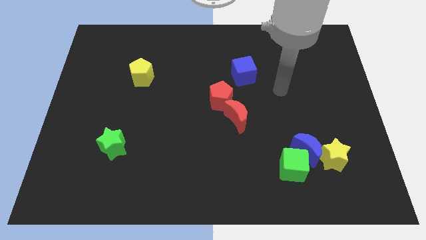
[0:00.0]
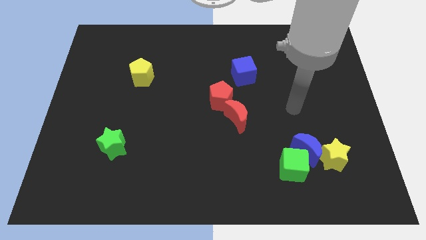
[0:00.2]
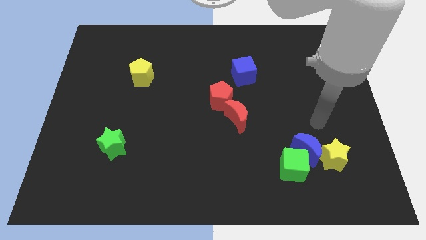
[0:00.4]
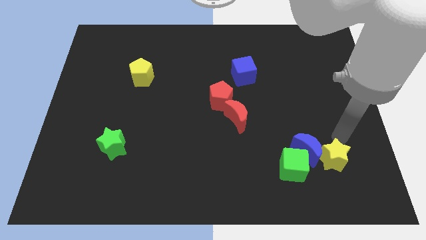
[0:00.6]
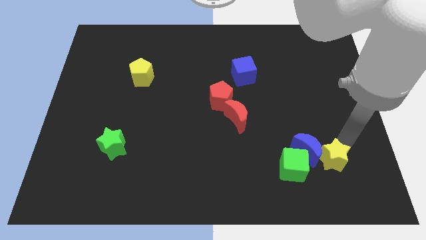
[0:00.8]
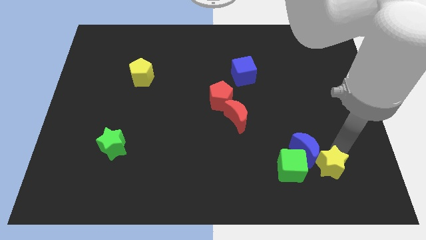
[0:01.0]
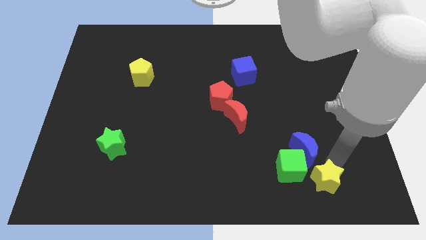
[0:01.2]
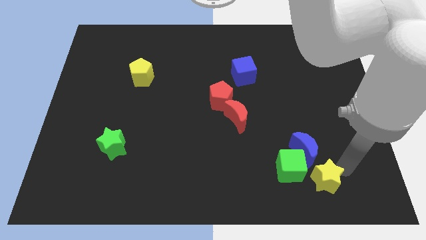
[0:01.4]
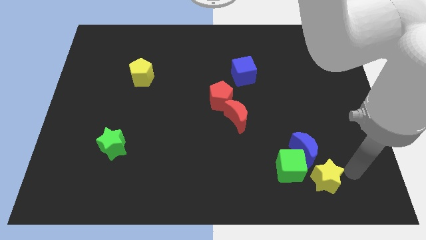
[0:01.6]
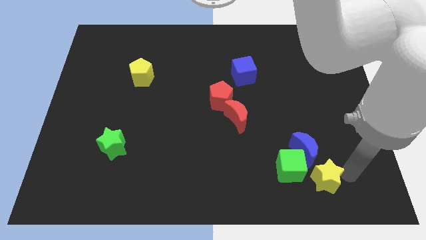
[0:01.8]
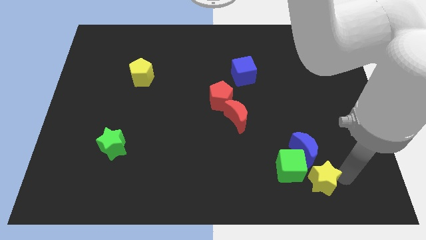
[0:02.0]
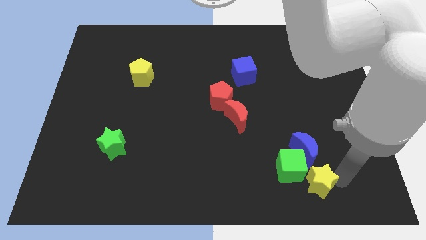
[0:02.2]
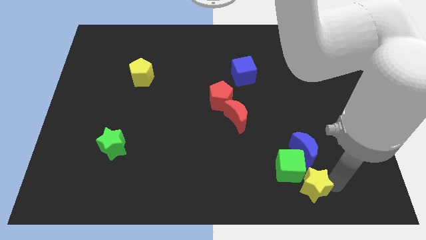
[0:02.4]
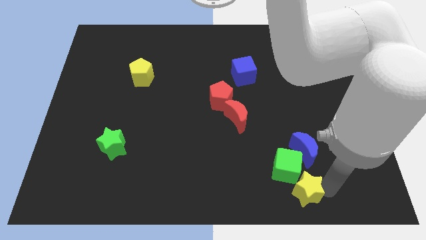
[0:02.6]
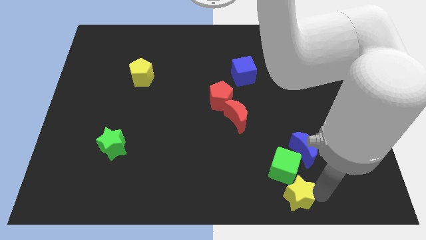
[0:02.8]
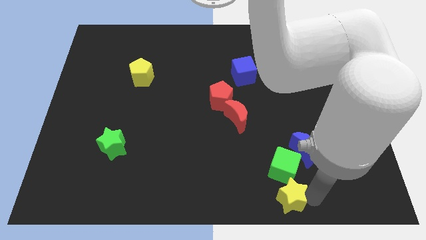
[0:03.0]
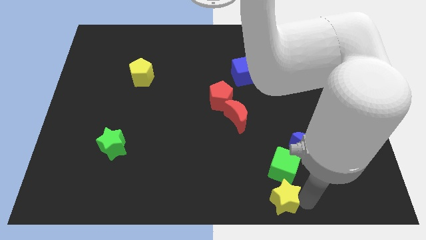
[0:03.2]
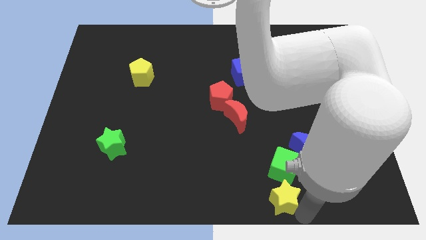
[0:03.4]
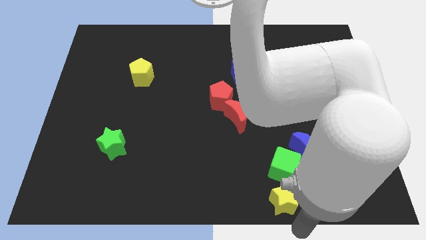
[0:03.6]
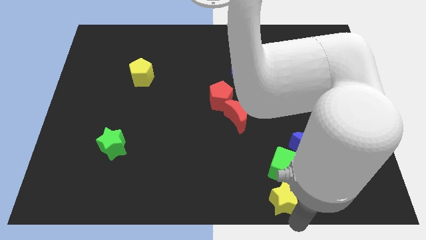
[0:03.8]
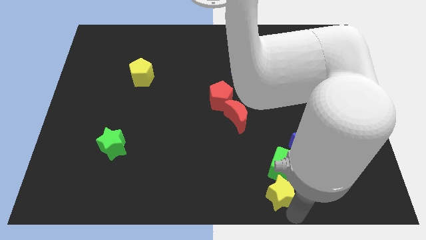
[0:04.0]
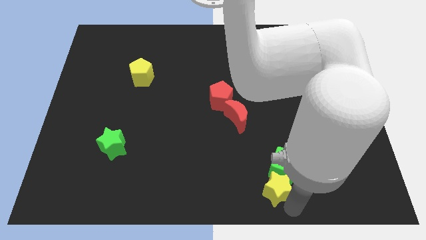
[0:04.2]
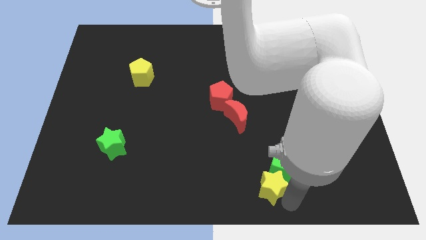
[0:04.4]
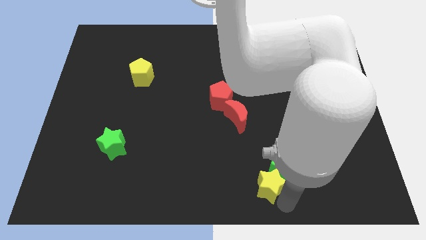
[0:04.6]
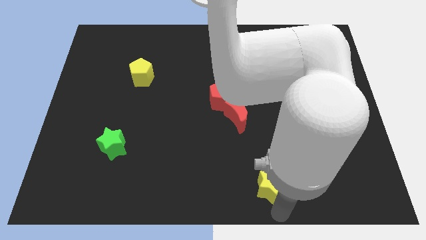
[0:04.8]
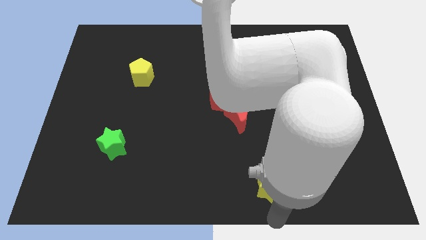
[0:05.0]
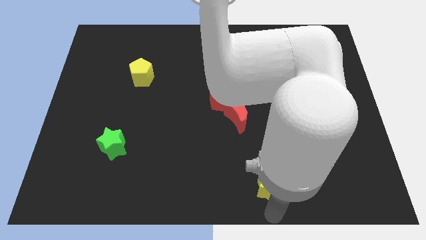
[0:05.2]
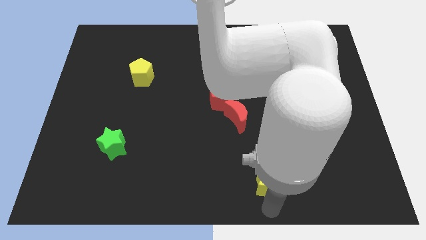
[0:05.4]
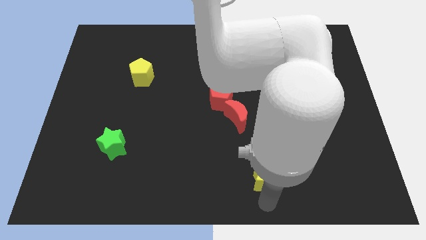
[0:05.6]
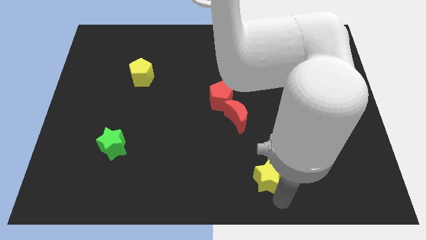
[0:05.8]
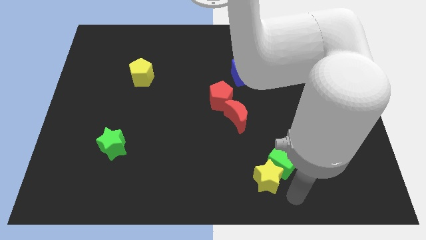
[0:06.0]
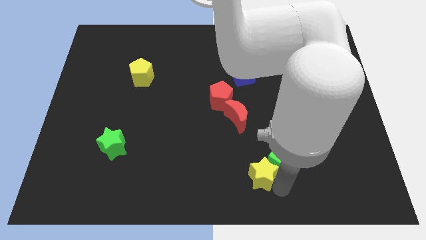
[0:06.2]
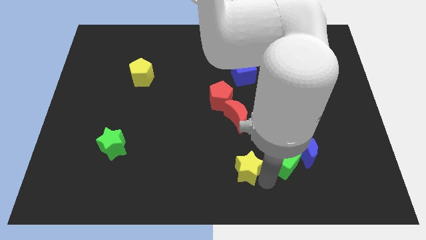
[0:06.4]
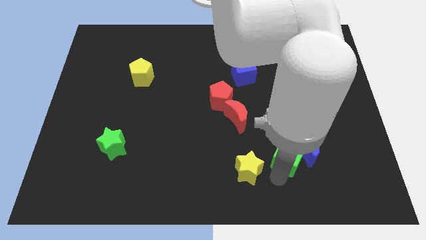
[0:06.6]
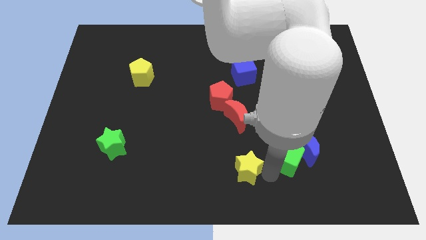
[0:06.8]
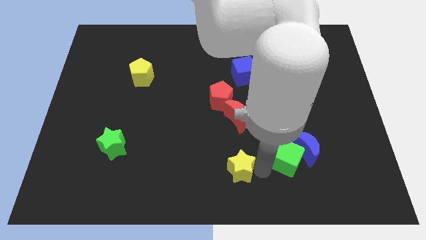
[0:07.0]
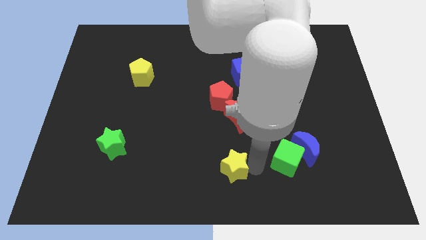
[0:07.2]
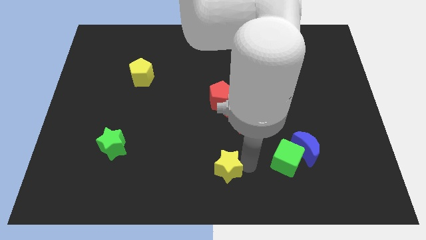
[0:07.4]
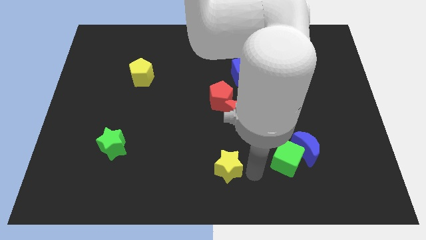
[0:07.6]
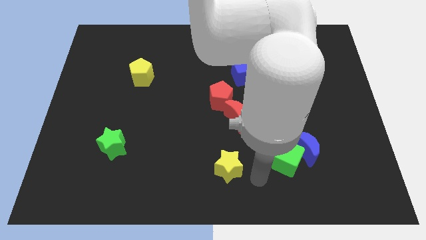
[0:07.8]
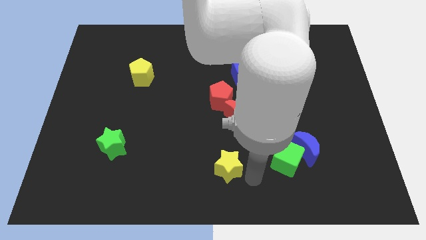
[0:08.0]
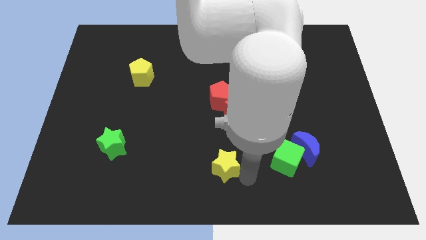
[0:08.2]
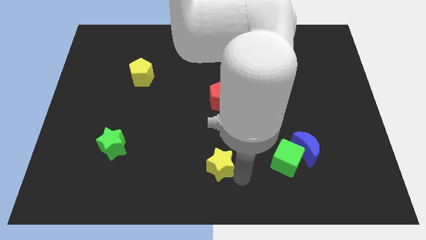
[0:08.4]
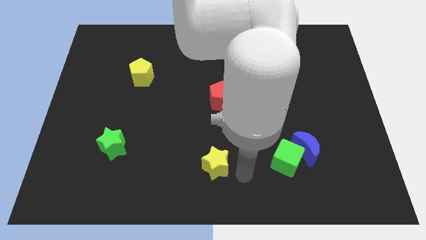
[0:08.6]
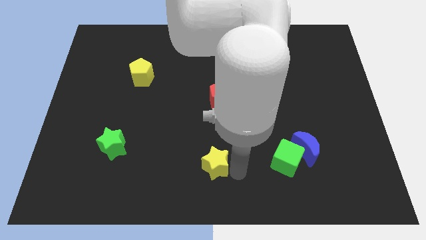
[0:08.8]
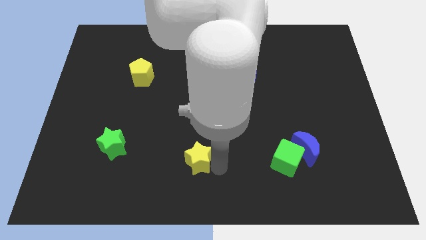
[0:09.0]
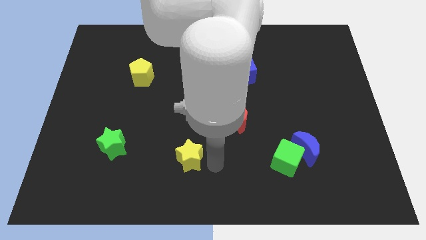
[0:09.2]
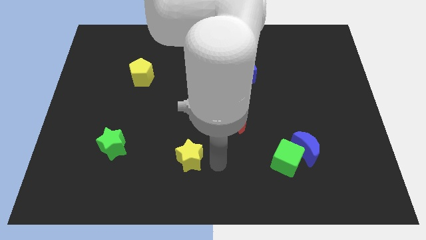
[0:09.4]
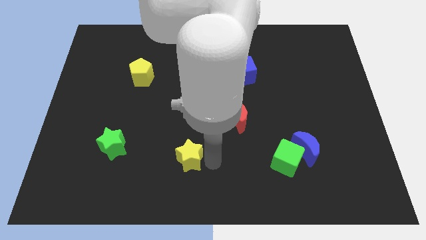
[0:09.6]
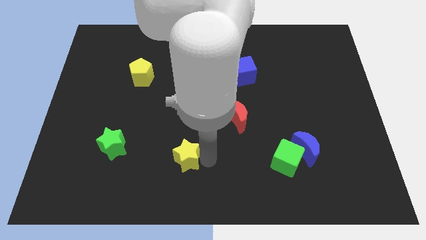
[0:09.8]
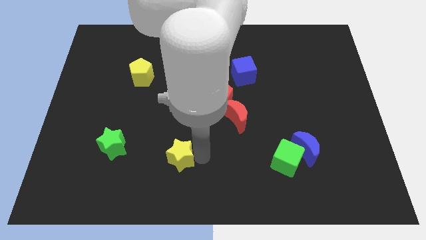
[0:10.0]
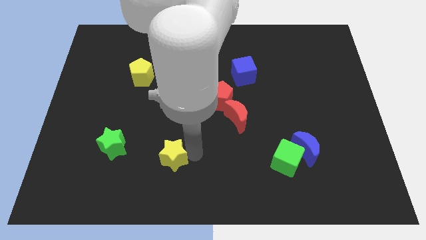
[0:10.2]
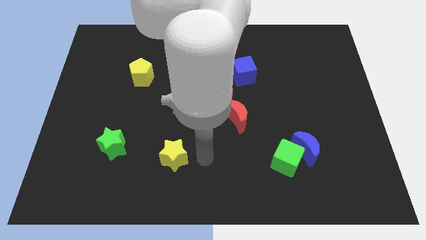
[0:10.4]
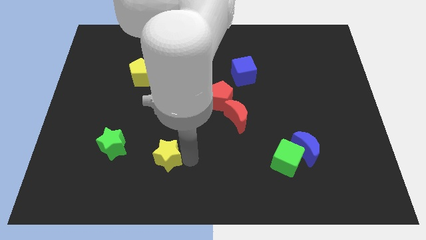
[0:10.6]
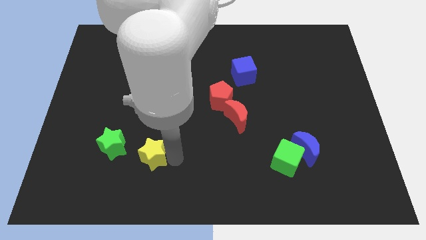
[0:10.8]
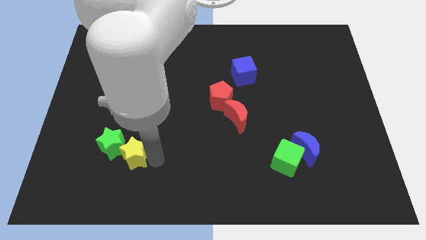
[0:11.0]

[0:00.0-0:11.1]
push the yellow star close to the green star

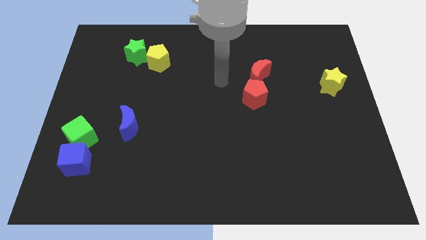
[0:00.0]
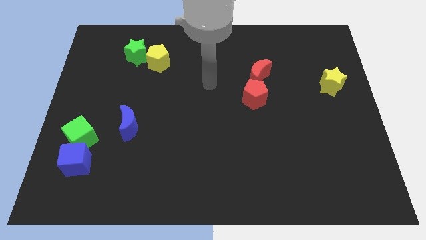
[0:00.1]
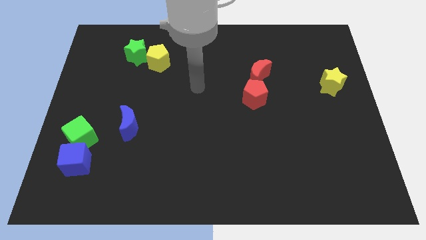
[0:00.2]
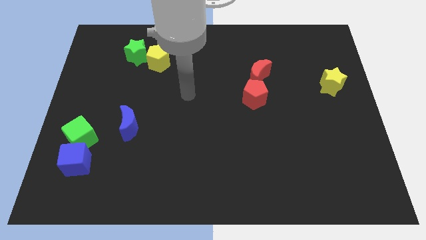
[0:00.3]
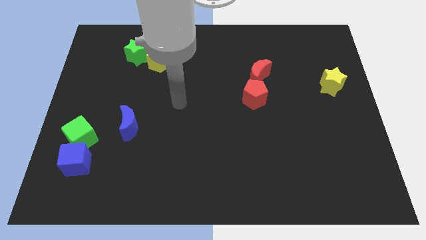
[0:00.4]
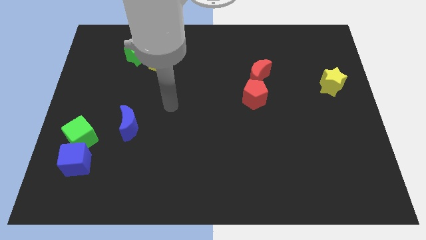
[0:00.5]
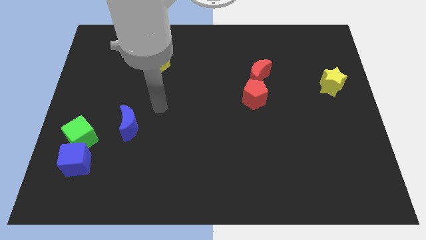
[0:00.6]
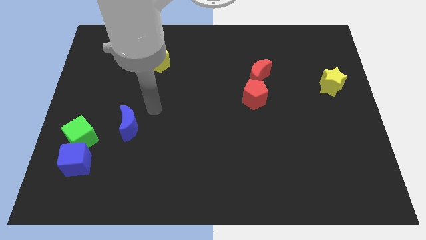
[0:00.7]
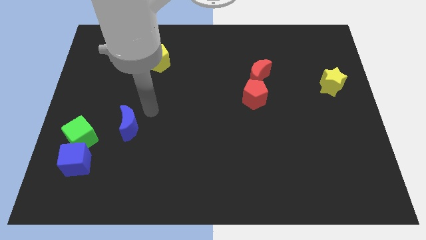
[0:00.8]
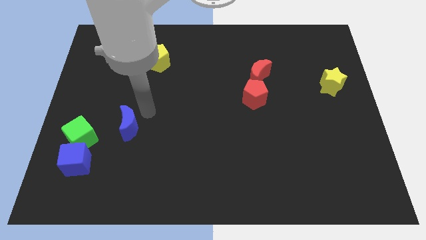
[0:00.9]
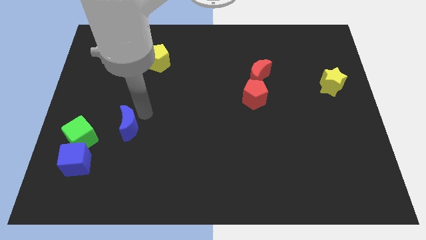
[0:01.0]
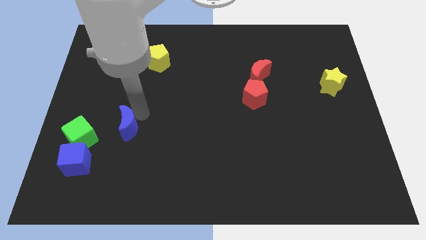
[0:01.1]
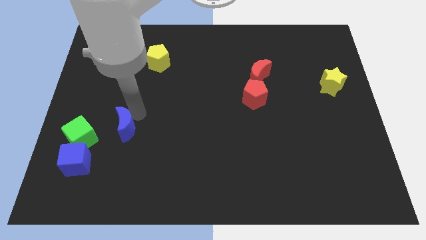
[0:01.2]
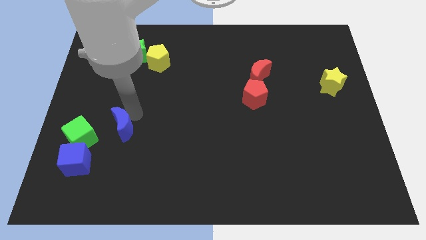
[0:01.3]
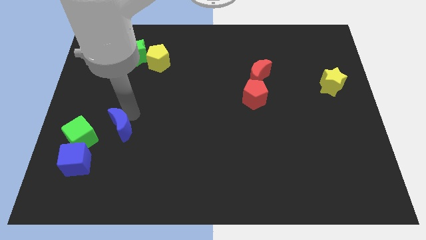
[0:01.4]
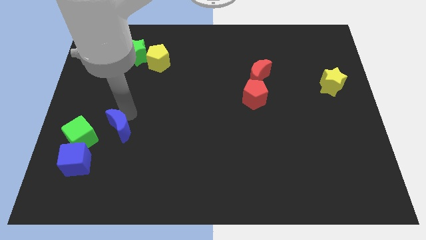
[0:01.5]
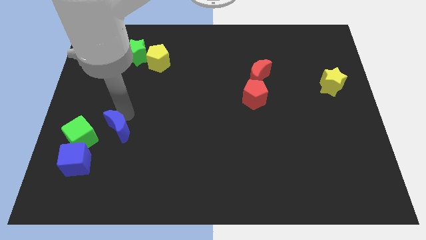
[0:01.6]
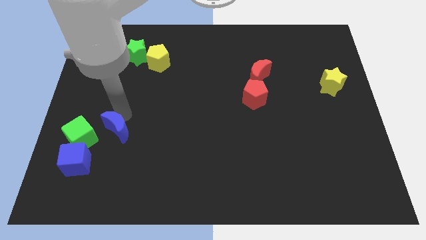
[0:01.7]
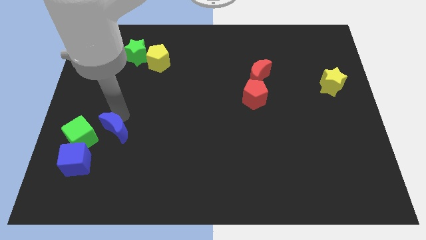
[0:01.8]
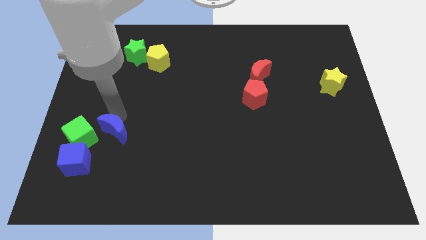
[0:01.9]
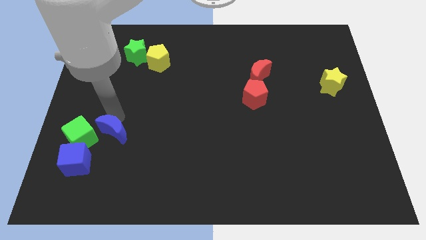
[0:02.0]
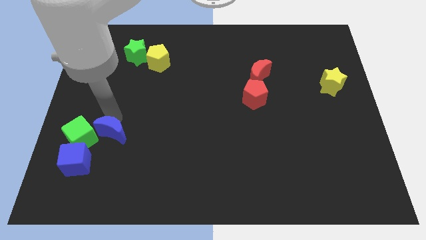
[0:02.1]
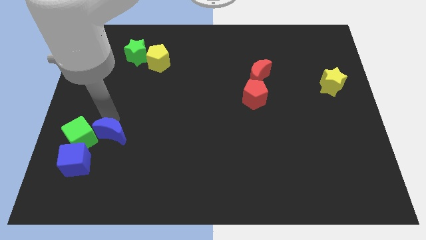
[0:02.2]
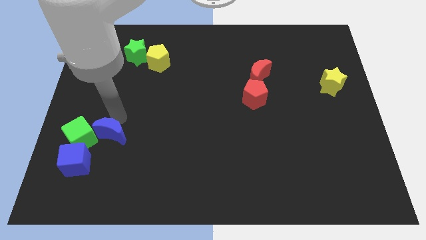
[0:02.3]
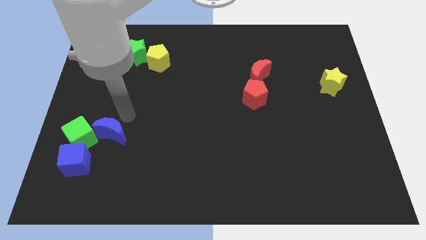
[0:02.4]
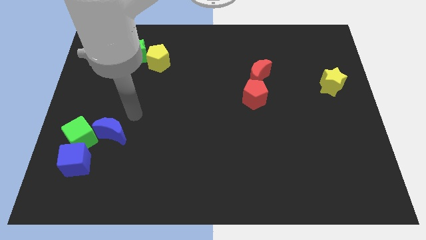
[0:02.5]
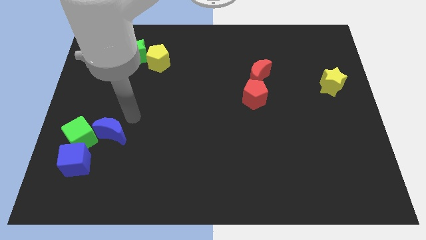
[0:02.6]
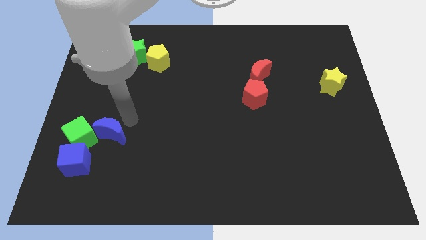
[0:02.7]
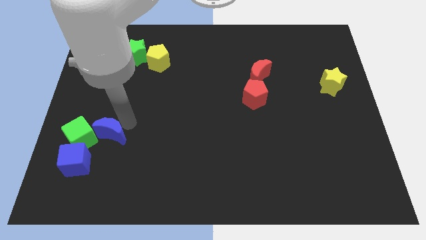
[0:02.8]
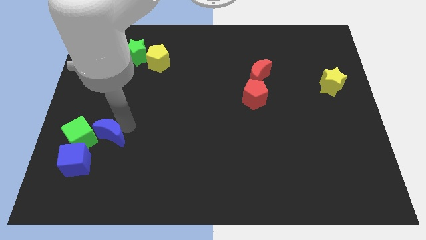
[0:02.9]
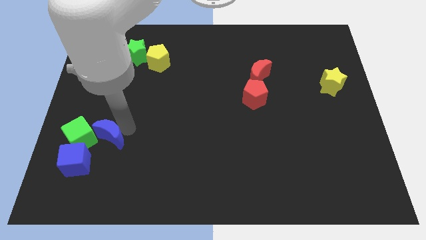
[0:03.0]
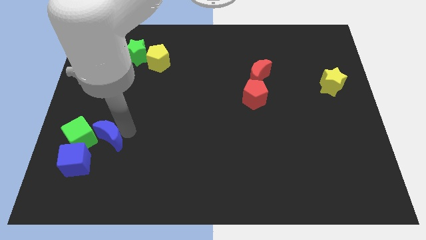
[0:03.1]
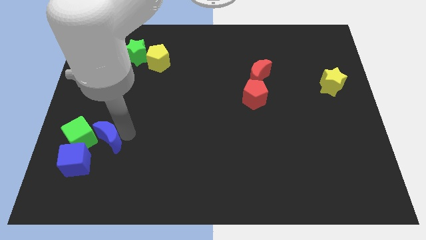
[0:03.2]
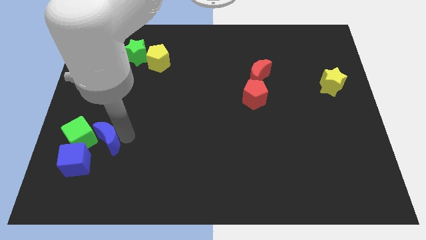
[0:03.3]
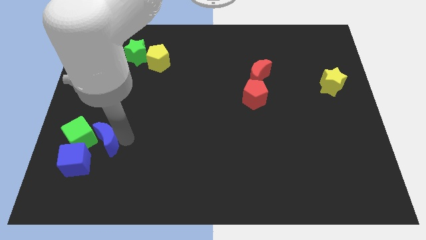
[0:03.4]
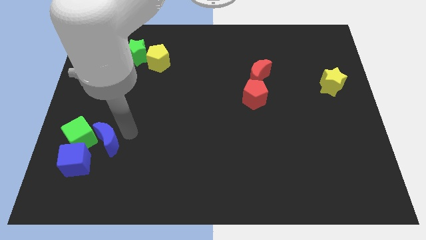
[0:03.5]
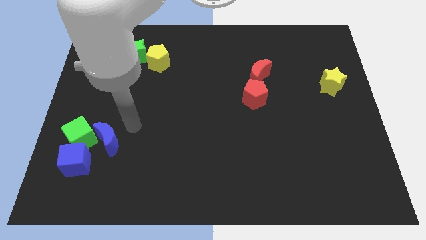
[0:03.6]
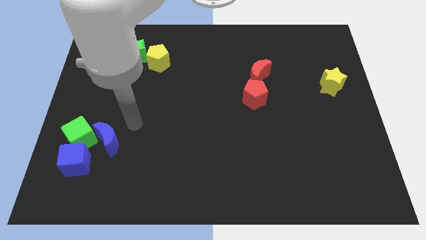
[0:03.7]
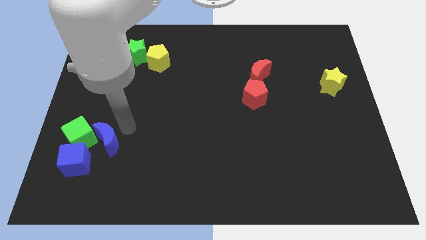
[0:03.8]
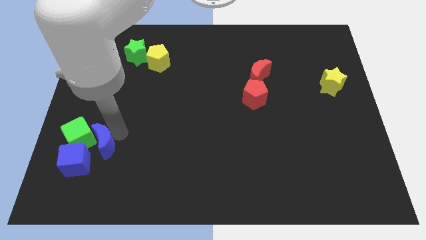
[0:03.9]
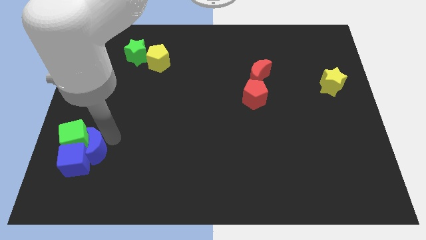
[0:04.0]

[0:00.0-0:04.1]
push the blue moon towards the blue cube
